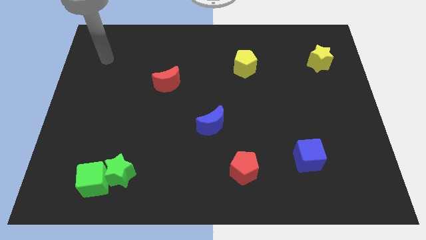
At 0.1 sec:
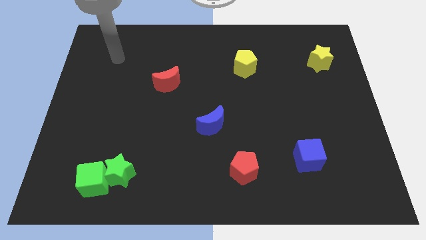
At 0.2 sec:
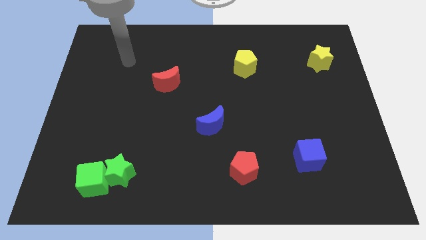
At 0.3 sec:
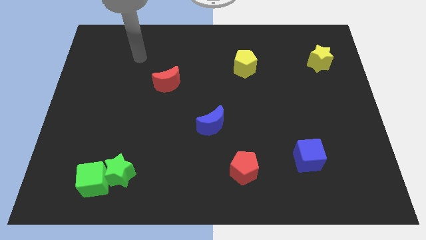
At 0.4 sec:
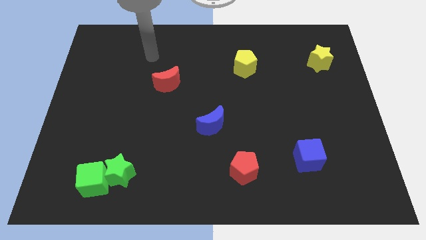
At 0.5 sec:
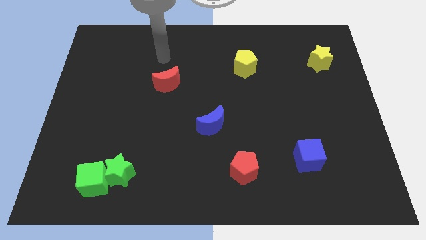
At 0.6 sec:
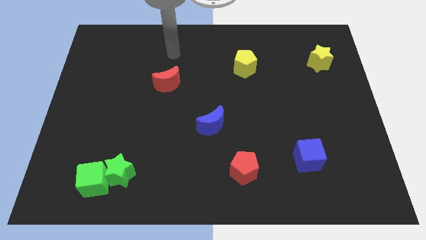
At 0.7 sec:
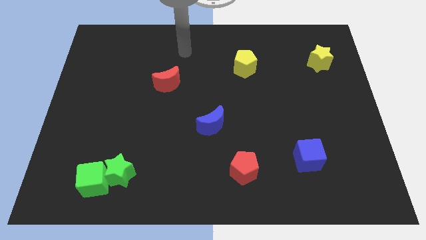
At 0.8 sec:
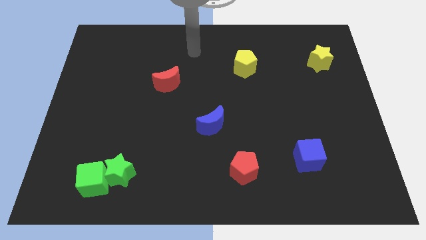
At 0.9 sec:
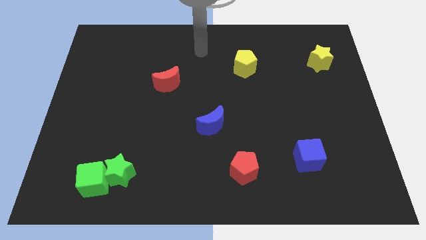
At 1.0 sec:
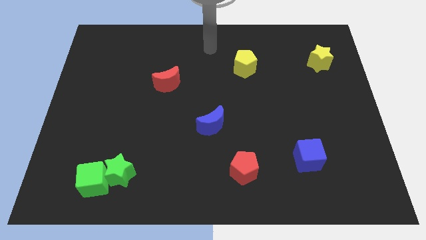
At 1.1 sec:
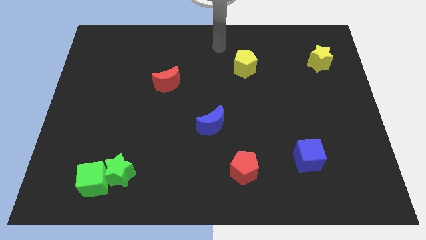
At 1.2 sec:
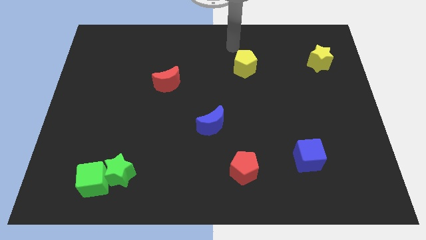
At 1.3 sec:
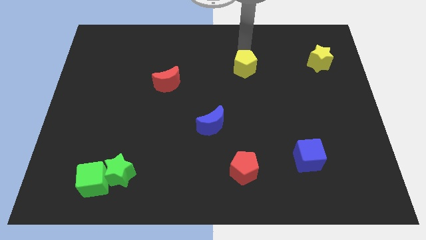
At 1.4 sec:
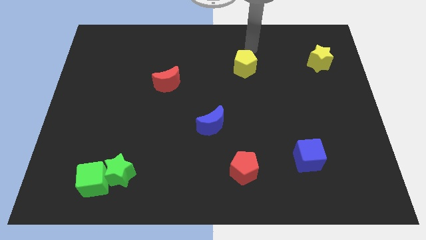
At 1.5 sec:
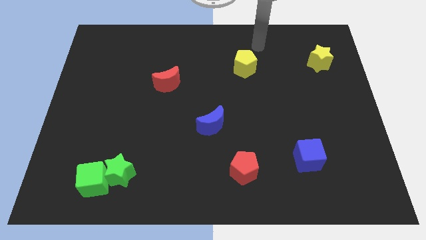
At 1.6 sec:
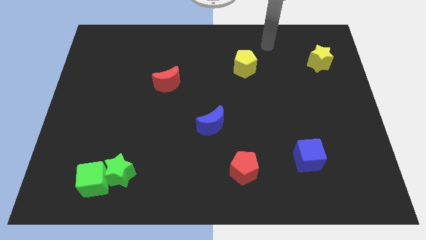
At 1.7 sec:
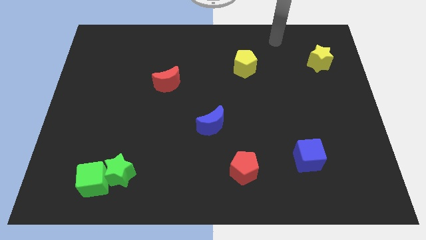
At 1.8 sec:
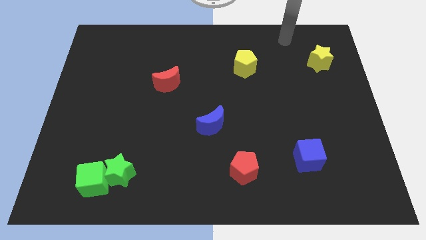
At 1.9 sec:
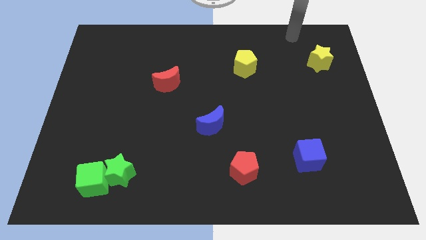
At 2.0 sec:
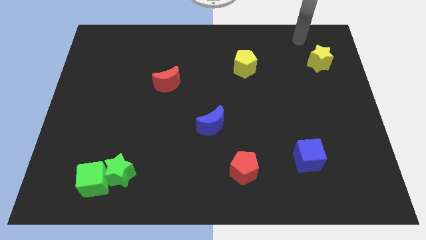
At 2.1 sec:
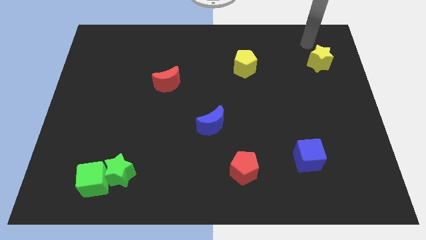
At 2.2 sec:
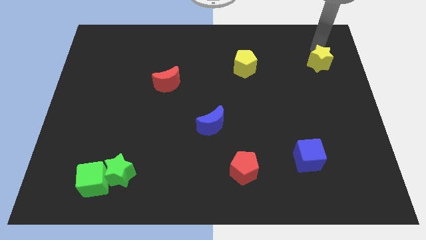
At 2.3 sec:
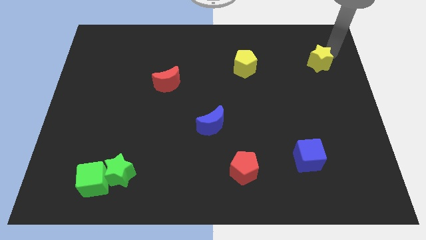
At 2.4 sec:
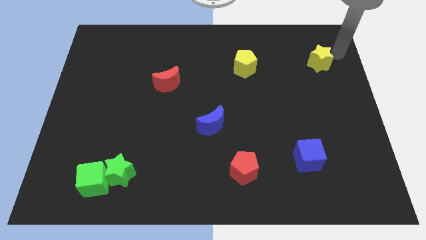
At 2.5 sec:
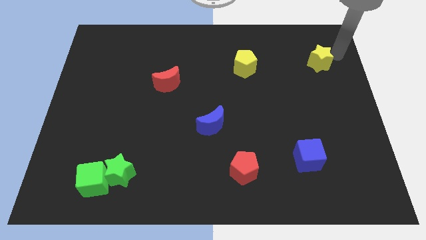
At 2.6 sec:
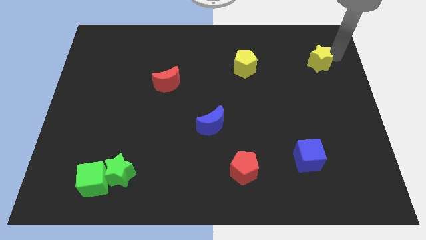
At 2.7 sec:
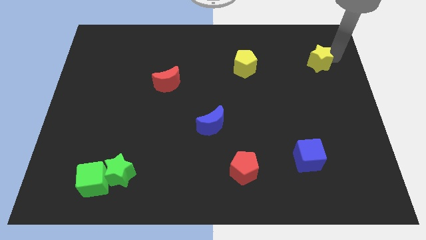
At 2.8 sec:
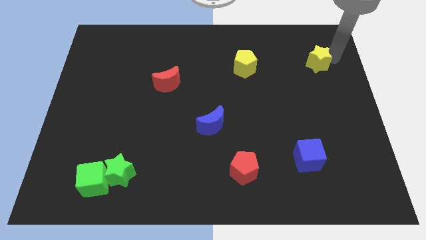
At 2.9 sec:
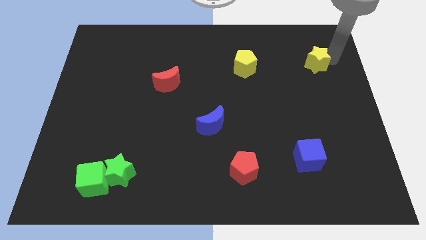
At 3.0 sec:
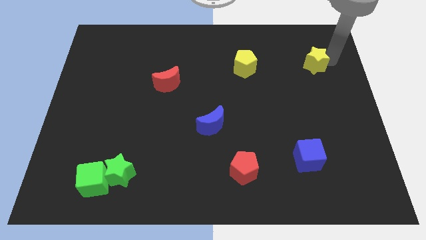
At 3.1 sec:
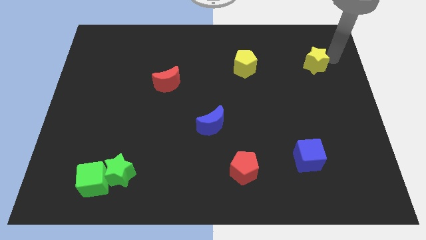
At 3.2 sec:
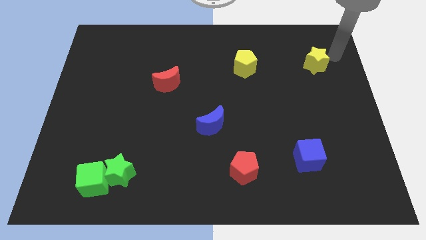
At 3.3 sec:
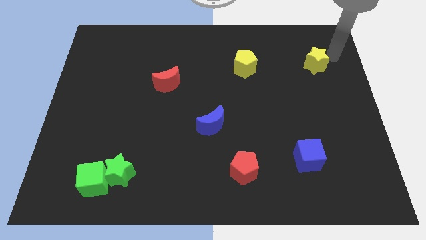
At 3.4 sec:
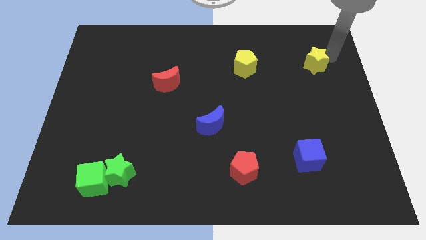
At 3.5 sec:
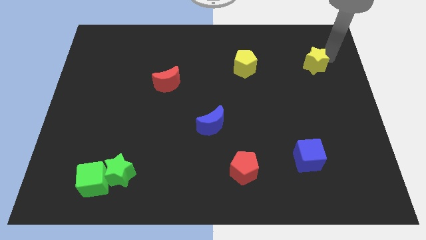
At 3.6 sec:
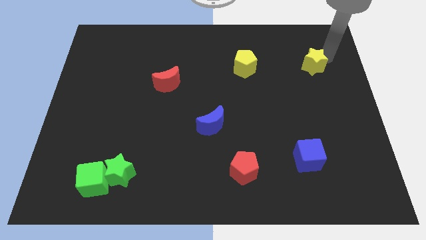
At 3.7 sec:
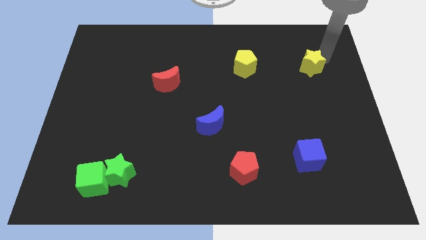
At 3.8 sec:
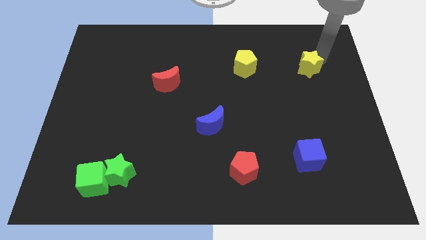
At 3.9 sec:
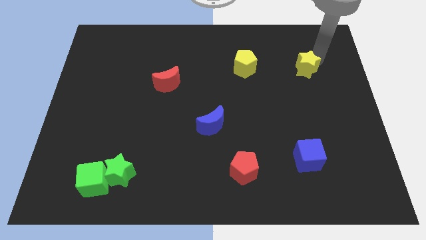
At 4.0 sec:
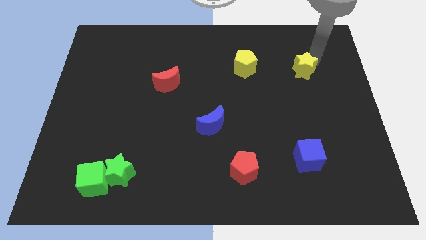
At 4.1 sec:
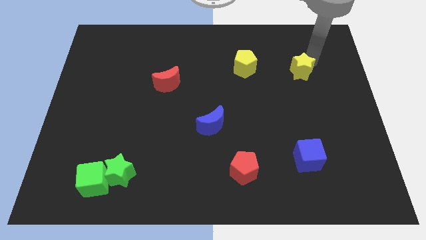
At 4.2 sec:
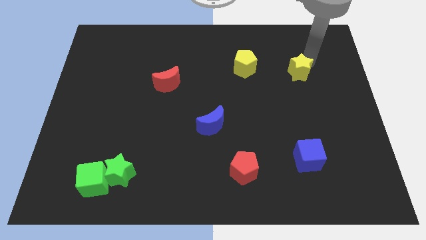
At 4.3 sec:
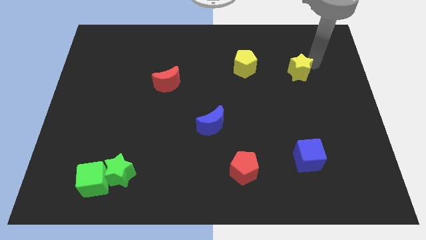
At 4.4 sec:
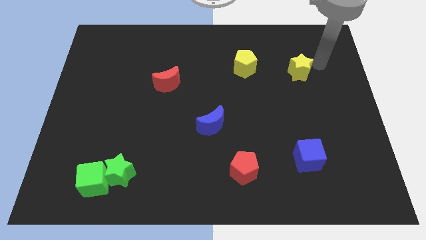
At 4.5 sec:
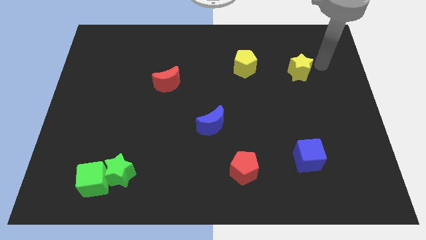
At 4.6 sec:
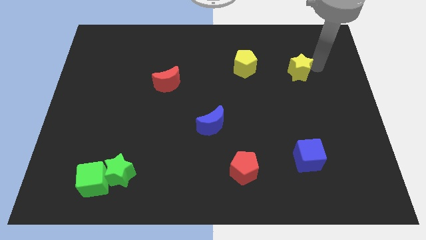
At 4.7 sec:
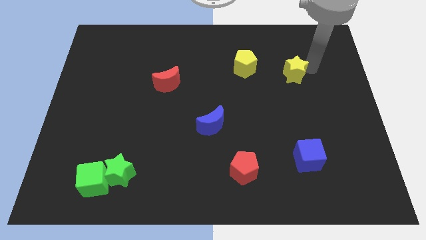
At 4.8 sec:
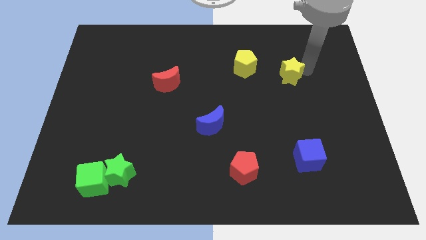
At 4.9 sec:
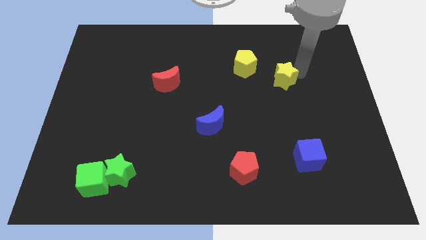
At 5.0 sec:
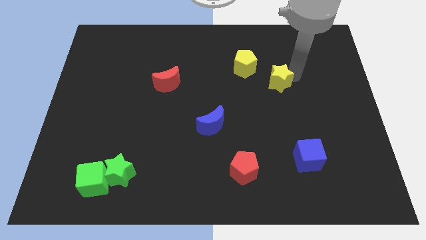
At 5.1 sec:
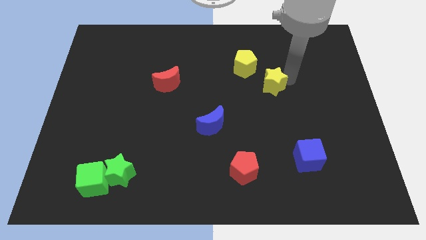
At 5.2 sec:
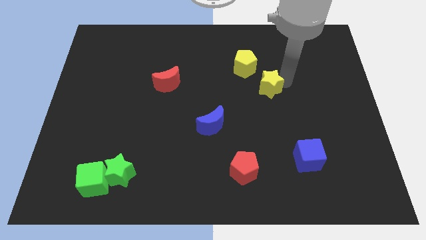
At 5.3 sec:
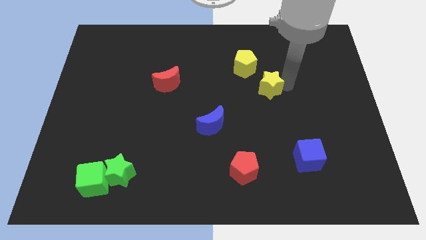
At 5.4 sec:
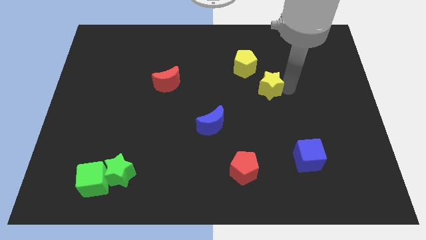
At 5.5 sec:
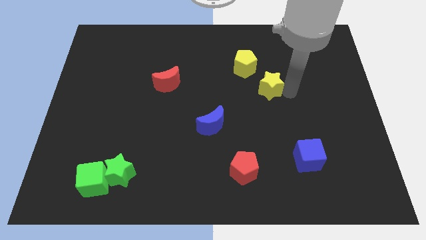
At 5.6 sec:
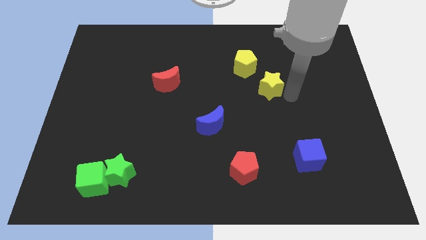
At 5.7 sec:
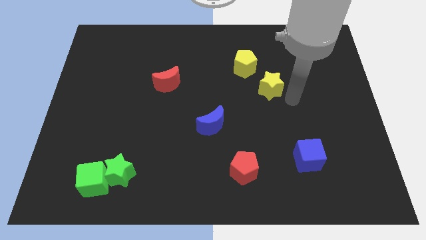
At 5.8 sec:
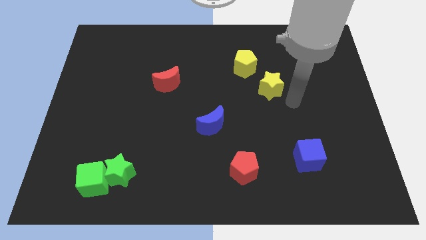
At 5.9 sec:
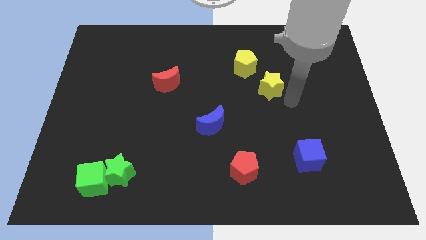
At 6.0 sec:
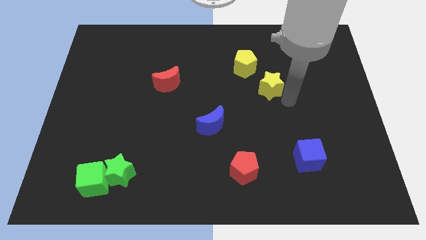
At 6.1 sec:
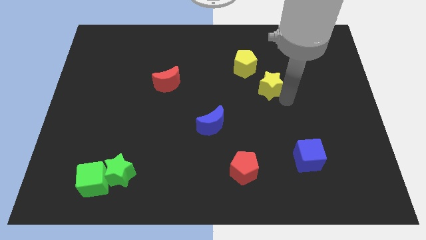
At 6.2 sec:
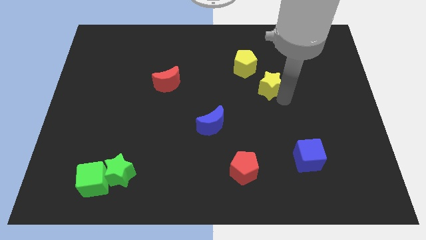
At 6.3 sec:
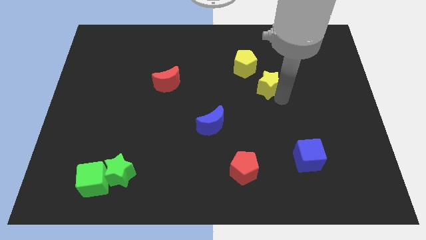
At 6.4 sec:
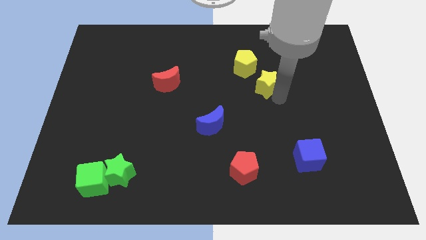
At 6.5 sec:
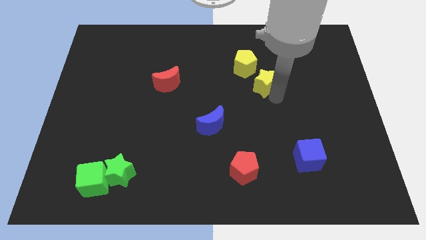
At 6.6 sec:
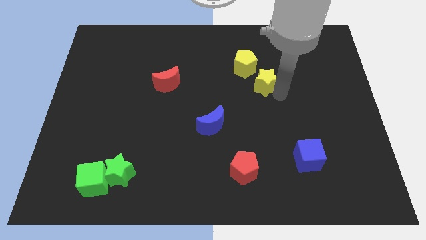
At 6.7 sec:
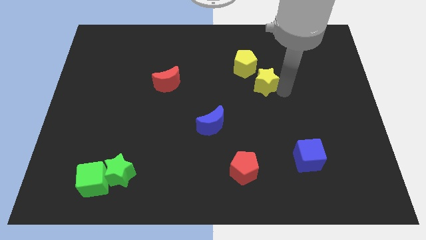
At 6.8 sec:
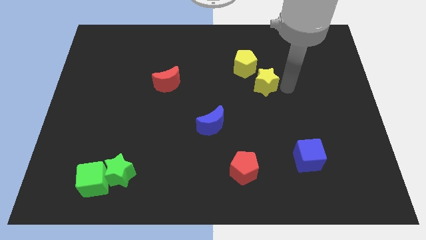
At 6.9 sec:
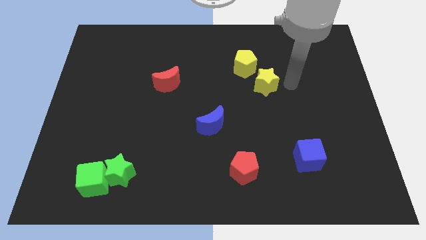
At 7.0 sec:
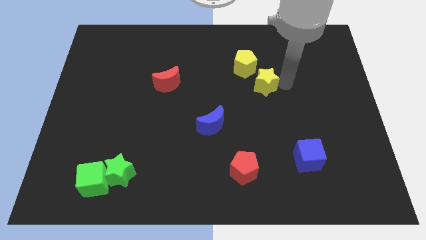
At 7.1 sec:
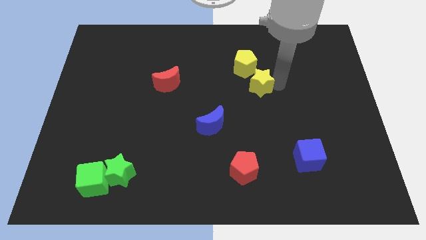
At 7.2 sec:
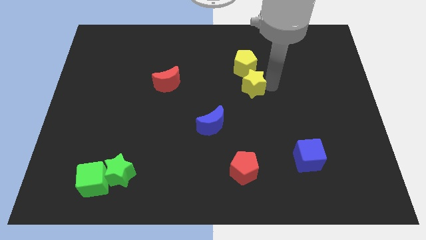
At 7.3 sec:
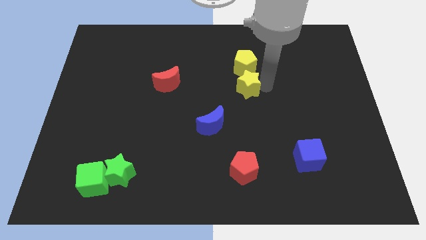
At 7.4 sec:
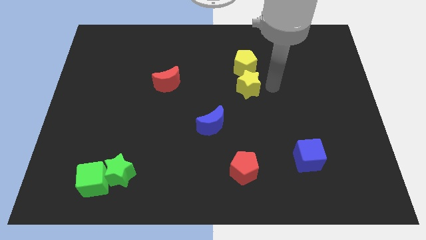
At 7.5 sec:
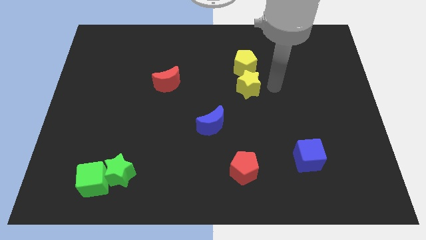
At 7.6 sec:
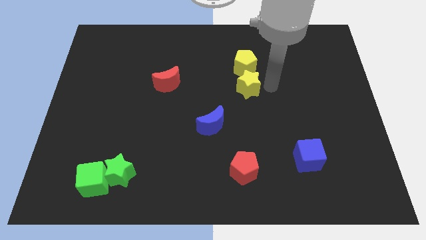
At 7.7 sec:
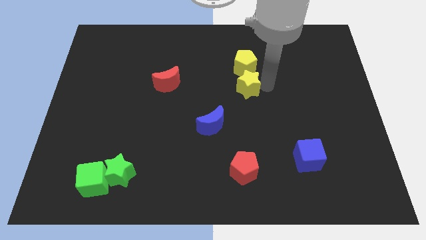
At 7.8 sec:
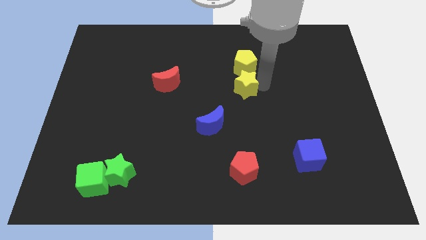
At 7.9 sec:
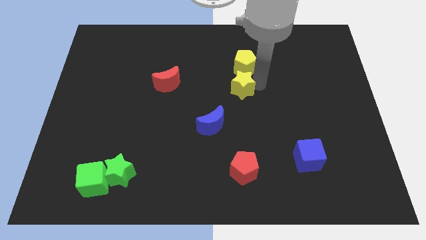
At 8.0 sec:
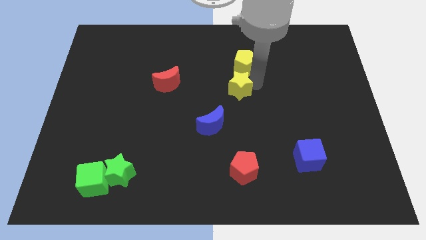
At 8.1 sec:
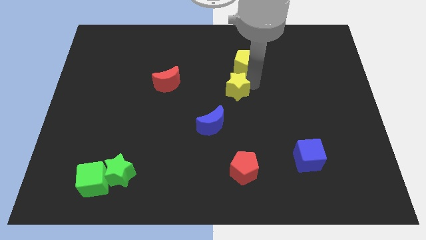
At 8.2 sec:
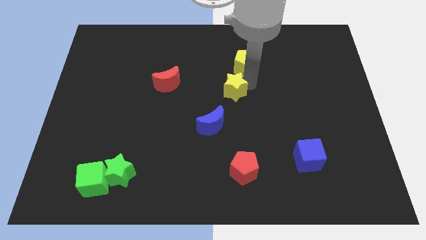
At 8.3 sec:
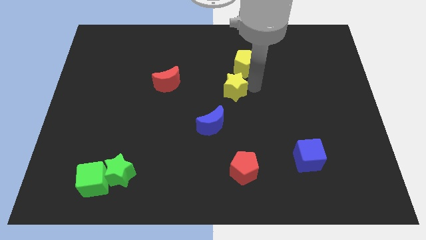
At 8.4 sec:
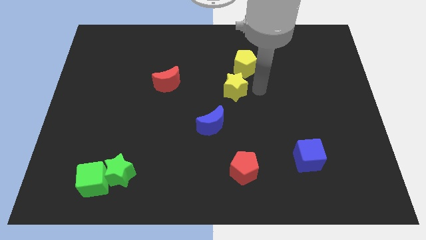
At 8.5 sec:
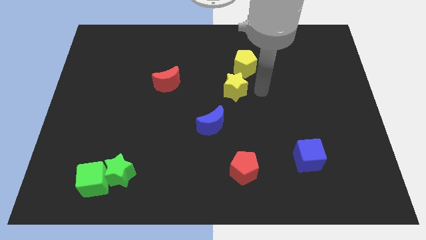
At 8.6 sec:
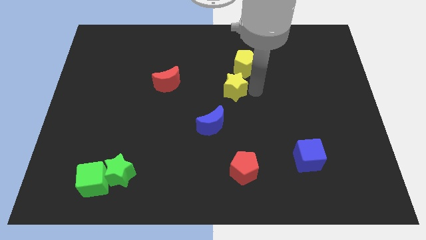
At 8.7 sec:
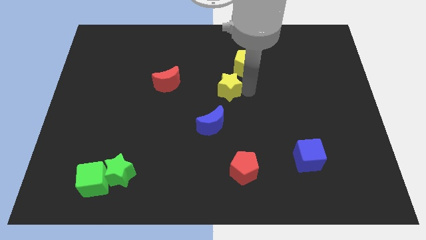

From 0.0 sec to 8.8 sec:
move the yellow star to the top side of the blue moon
